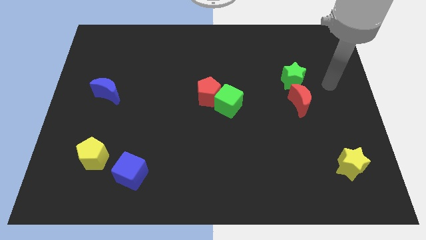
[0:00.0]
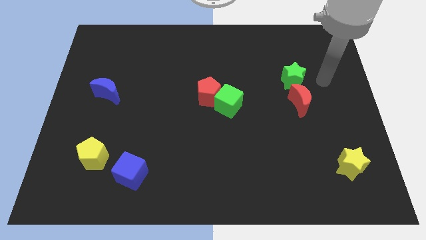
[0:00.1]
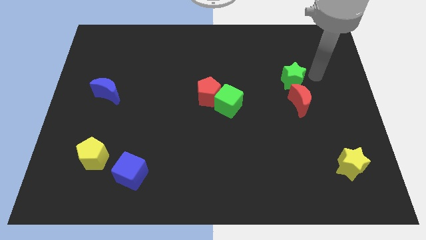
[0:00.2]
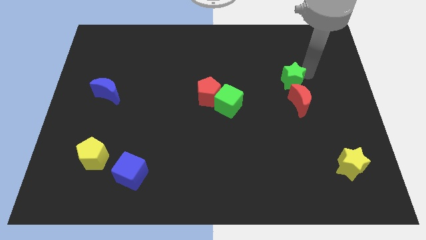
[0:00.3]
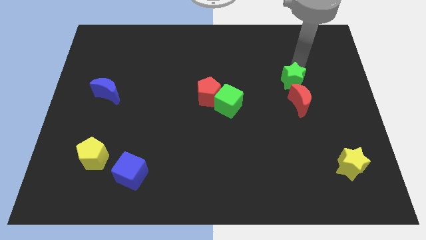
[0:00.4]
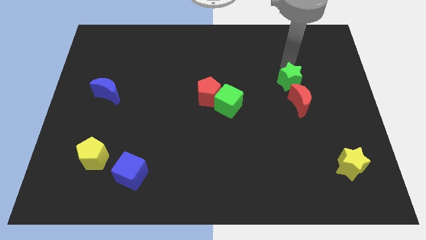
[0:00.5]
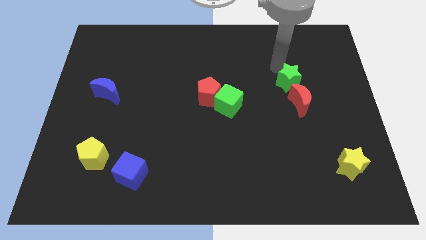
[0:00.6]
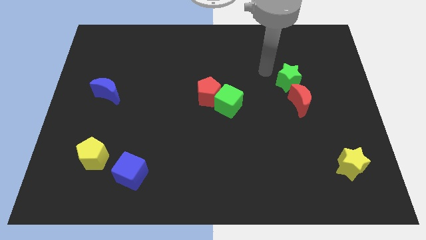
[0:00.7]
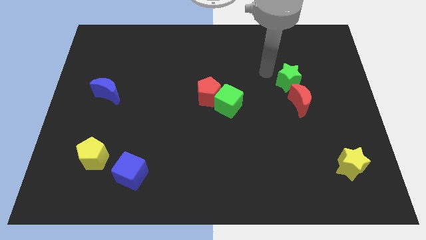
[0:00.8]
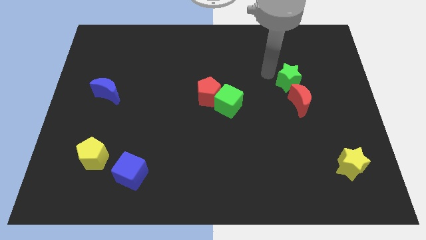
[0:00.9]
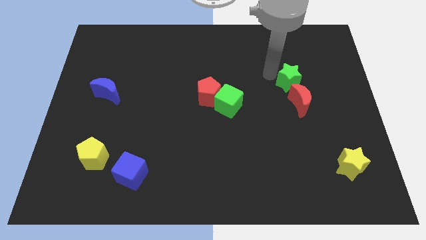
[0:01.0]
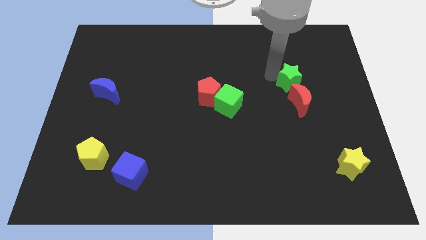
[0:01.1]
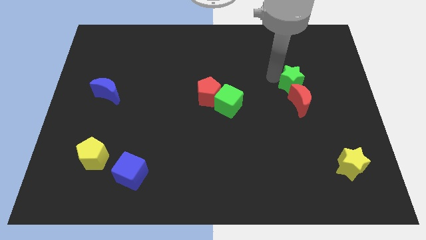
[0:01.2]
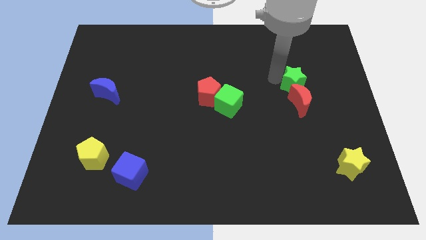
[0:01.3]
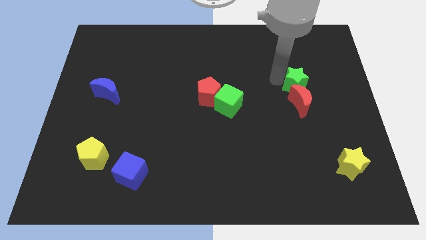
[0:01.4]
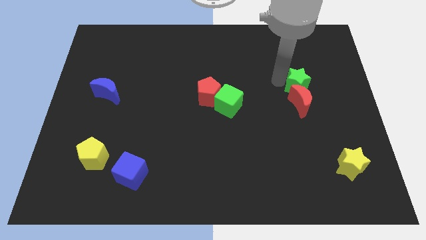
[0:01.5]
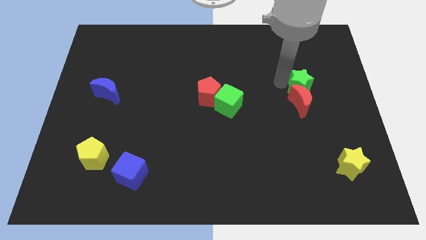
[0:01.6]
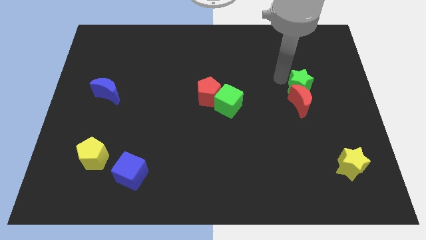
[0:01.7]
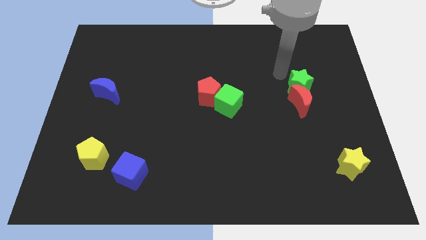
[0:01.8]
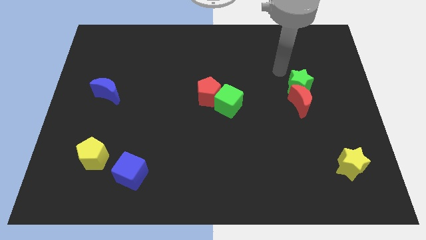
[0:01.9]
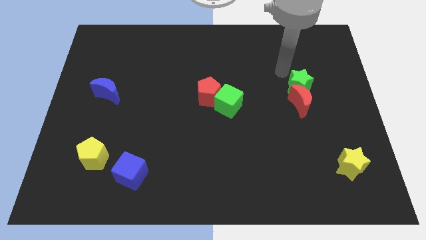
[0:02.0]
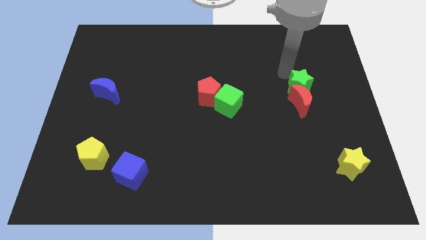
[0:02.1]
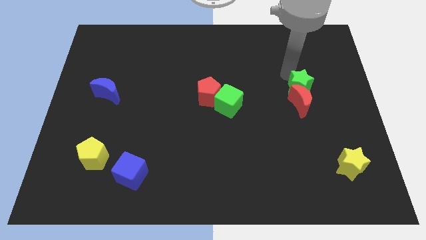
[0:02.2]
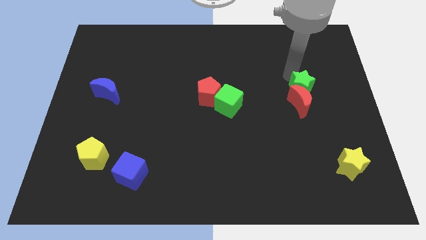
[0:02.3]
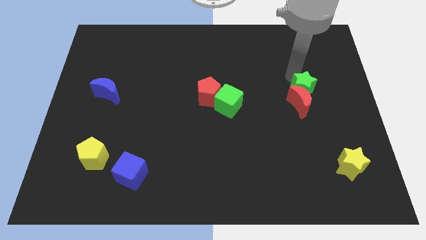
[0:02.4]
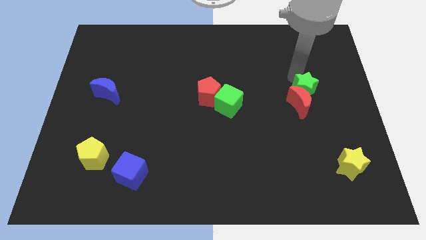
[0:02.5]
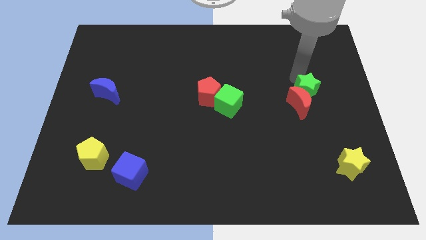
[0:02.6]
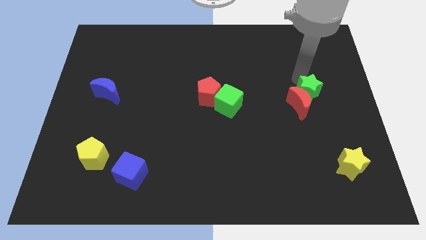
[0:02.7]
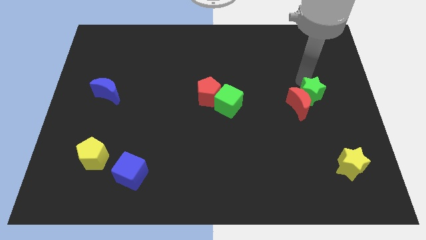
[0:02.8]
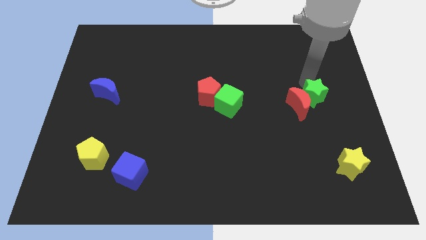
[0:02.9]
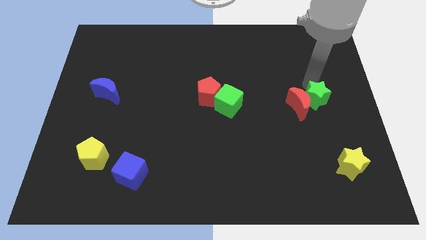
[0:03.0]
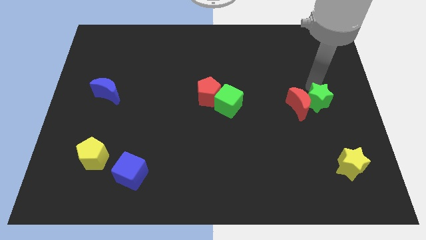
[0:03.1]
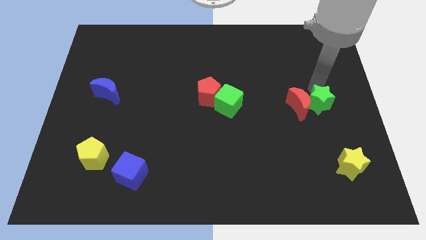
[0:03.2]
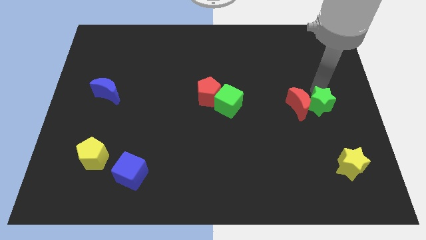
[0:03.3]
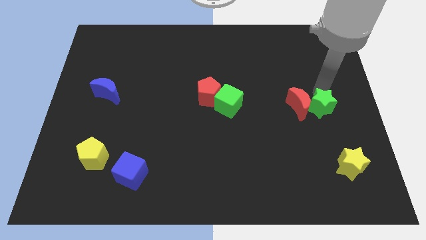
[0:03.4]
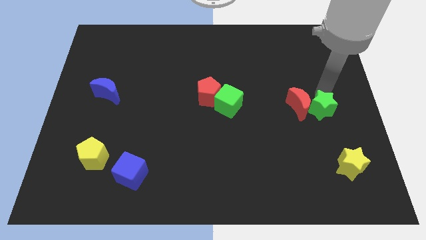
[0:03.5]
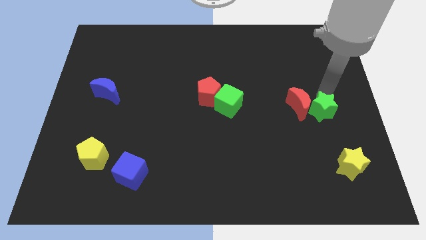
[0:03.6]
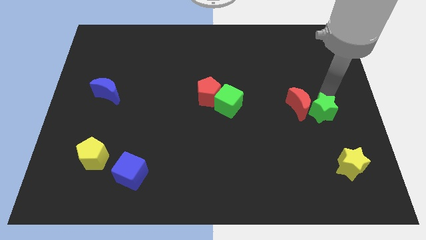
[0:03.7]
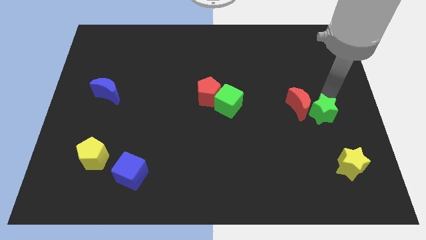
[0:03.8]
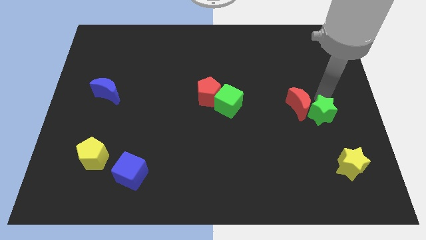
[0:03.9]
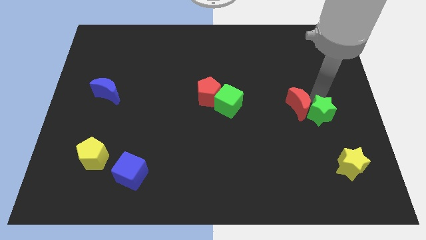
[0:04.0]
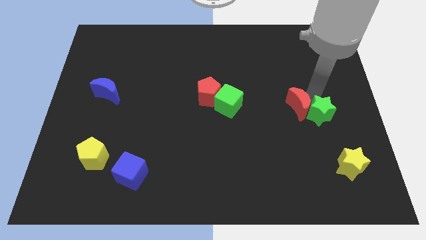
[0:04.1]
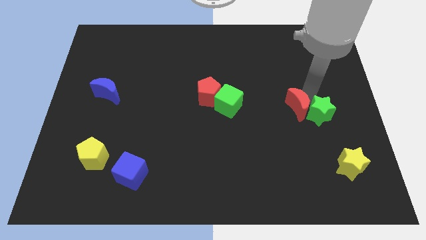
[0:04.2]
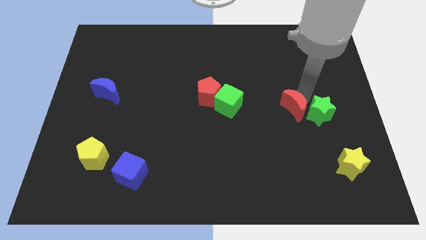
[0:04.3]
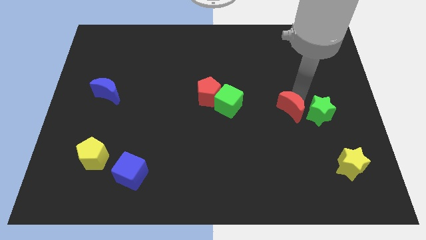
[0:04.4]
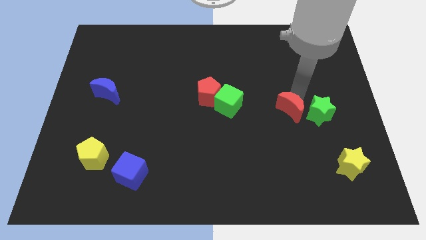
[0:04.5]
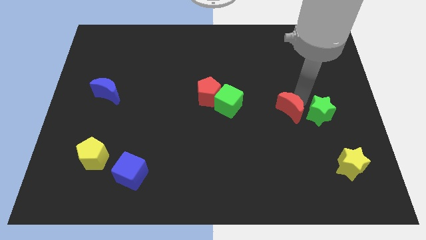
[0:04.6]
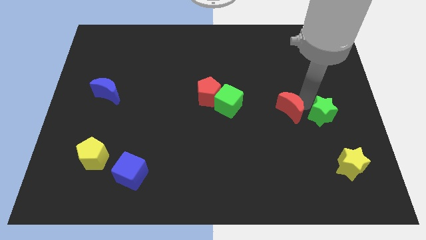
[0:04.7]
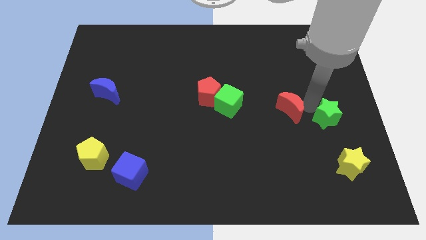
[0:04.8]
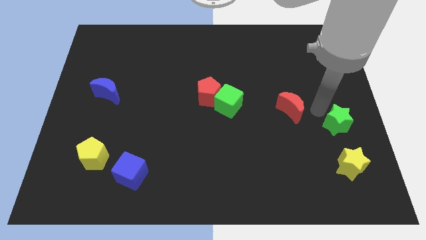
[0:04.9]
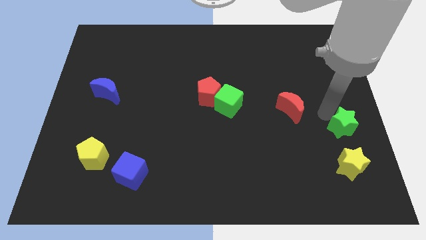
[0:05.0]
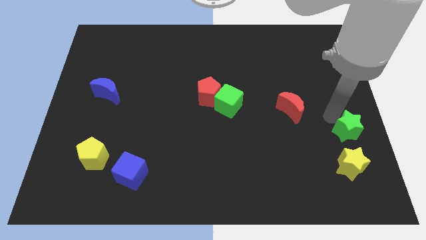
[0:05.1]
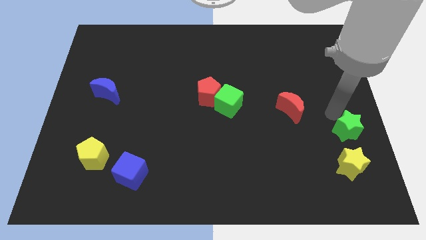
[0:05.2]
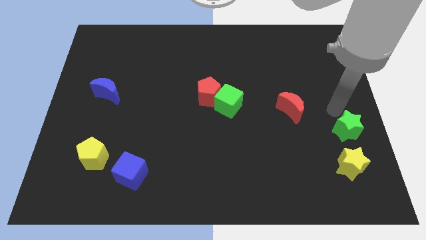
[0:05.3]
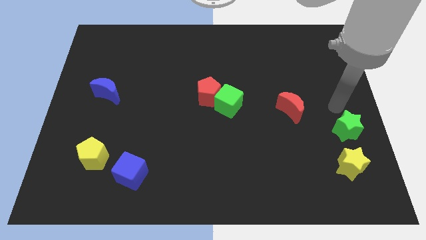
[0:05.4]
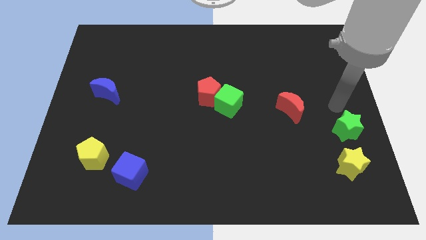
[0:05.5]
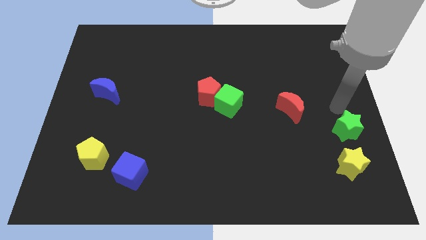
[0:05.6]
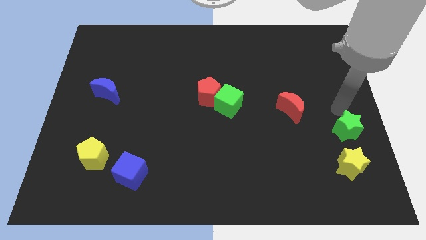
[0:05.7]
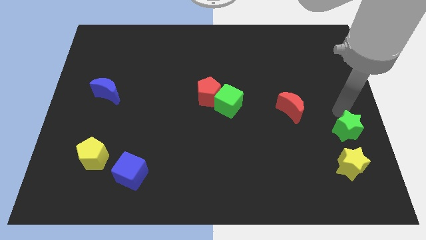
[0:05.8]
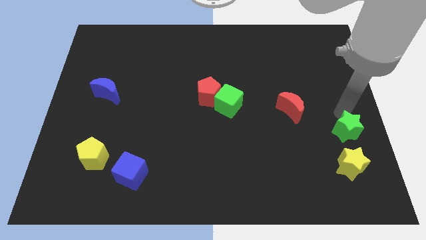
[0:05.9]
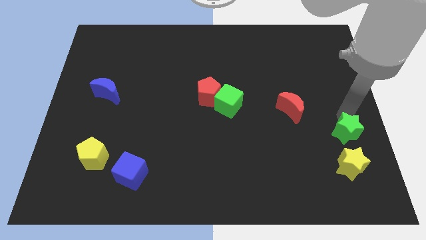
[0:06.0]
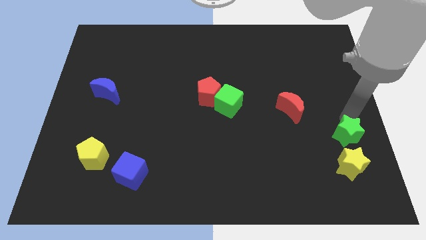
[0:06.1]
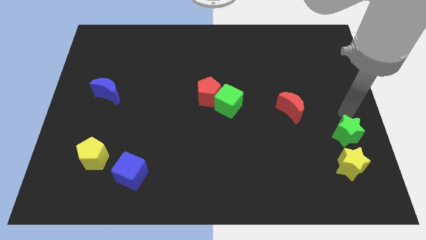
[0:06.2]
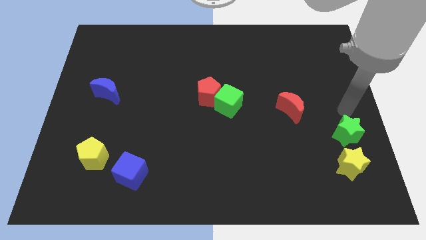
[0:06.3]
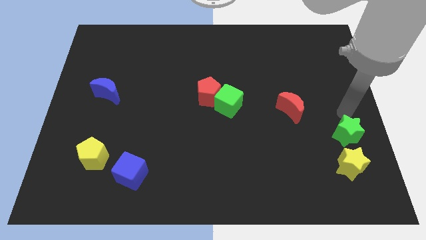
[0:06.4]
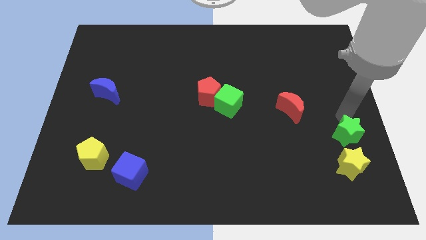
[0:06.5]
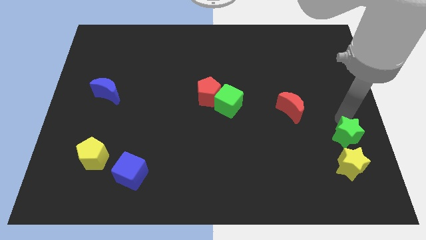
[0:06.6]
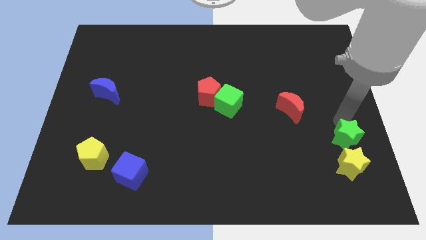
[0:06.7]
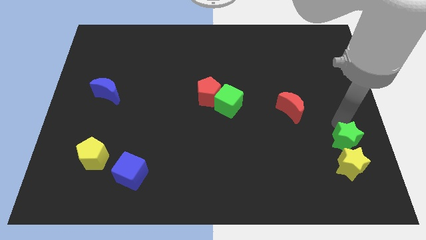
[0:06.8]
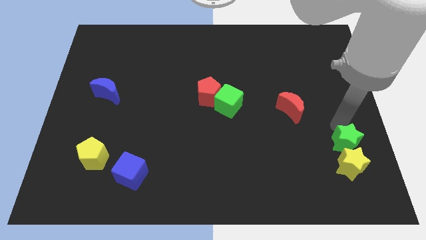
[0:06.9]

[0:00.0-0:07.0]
push the green star towards the yellow star
